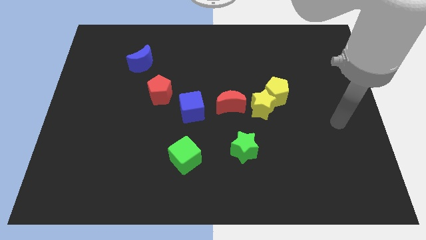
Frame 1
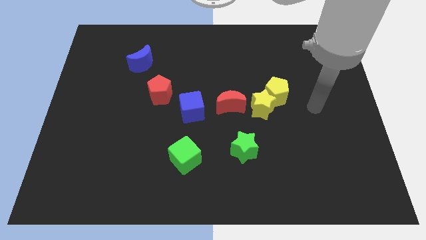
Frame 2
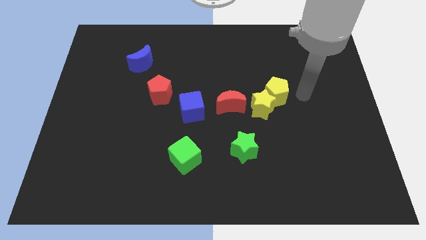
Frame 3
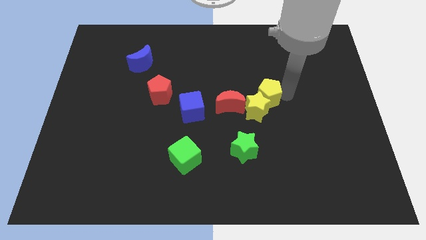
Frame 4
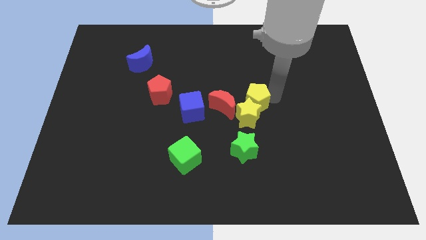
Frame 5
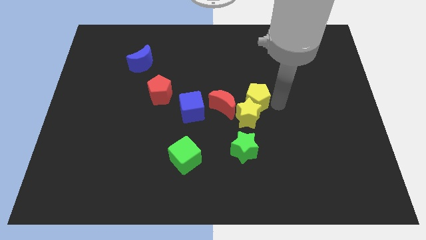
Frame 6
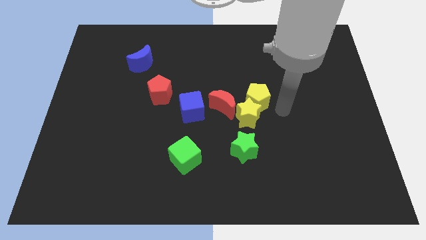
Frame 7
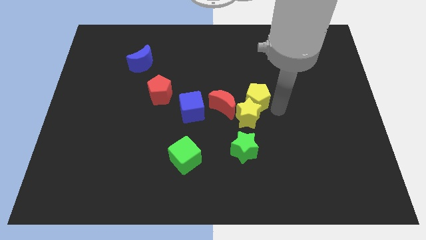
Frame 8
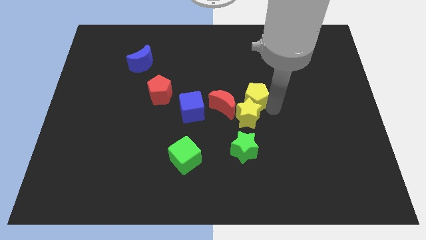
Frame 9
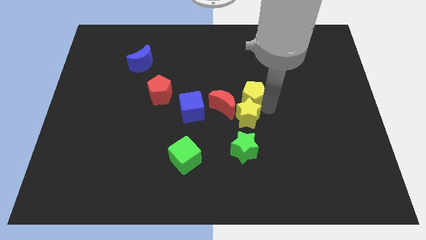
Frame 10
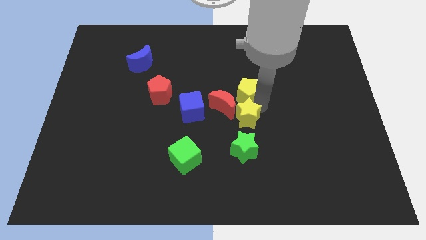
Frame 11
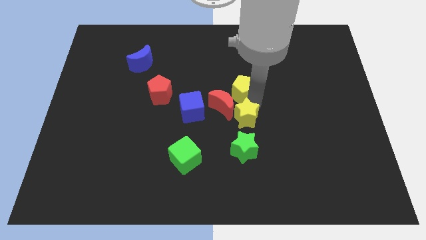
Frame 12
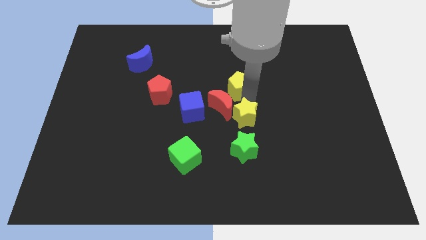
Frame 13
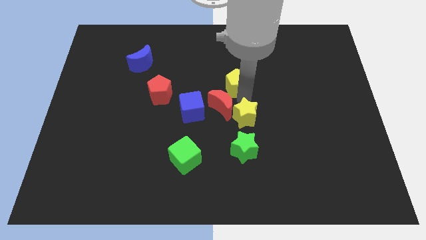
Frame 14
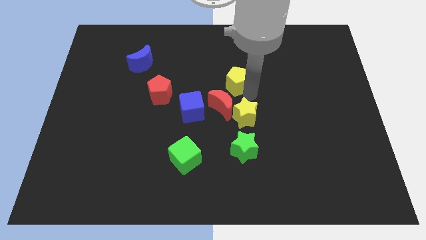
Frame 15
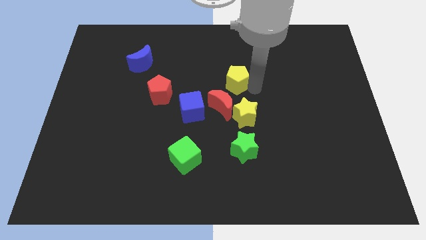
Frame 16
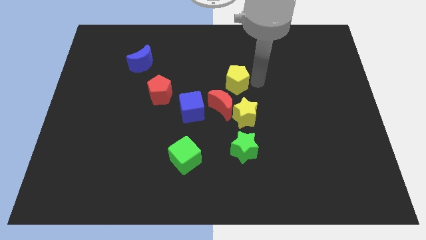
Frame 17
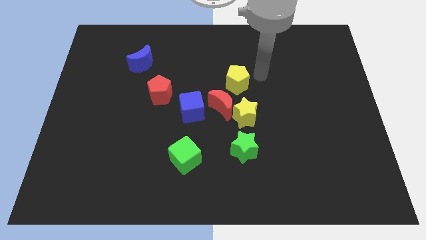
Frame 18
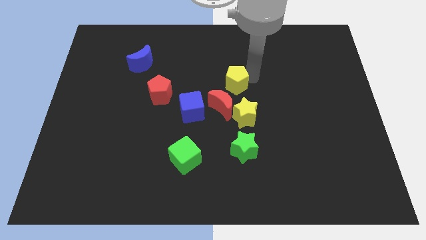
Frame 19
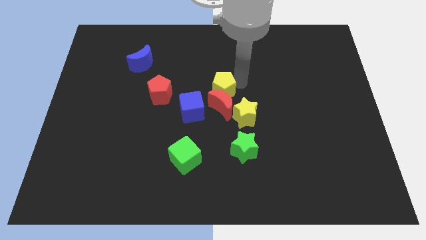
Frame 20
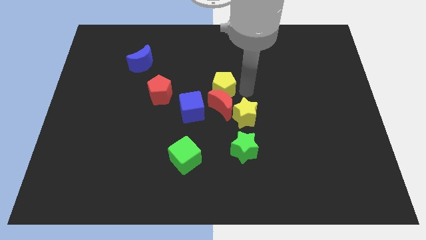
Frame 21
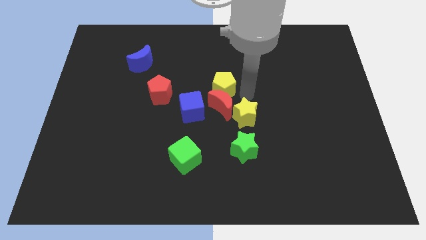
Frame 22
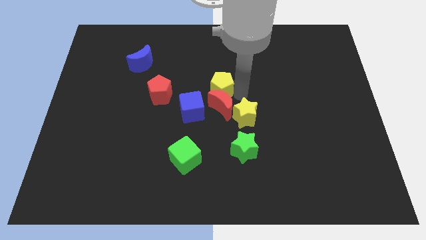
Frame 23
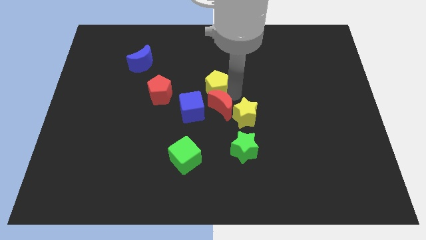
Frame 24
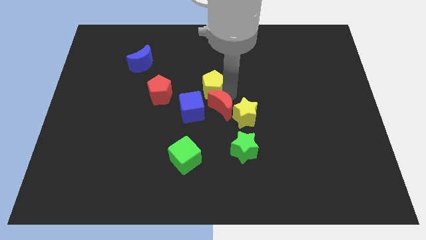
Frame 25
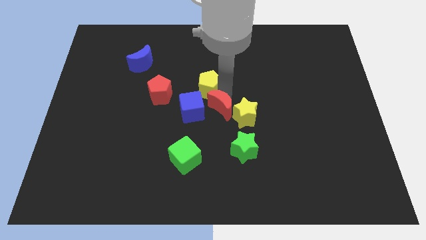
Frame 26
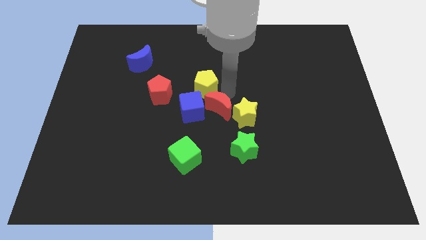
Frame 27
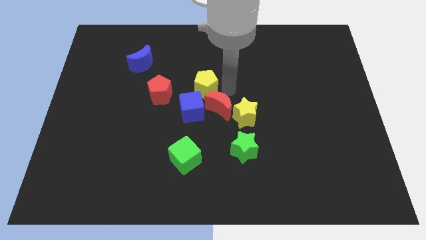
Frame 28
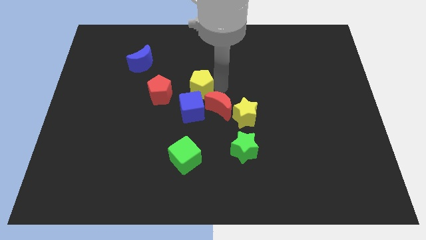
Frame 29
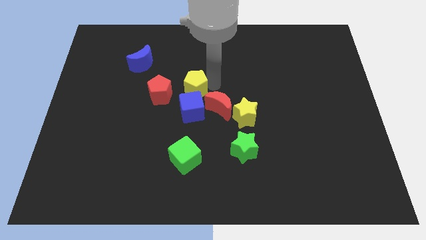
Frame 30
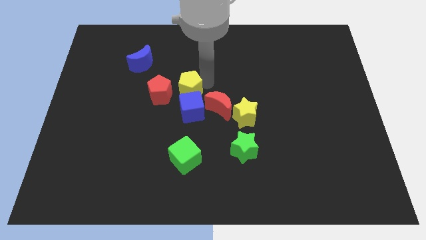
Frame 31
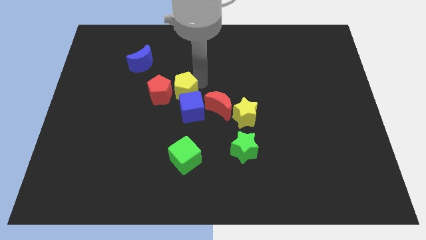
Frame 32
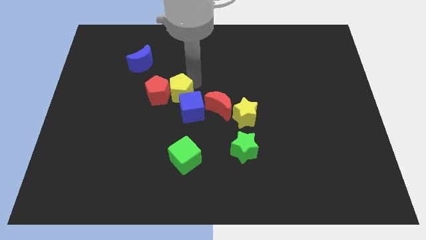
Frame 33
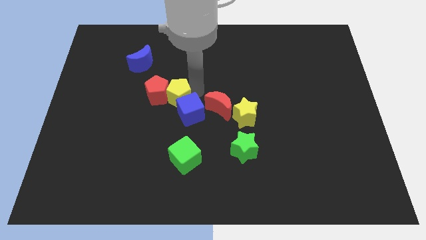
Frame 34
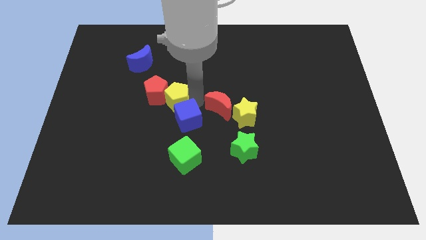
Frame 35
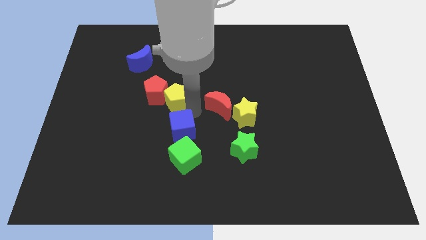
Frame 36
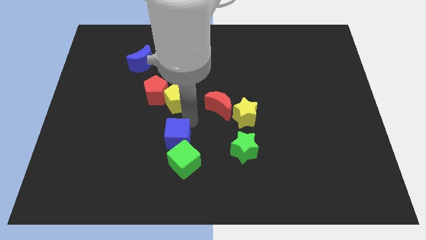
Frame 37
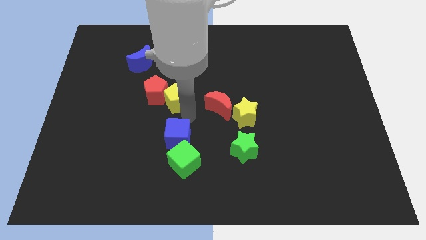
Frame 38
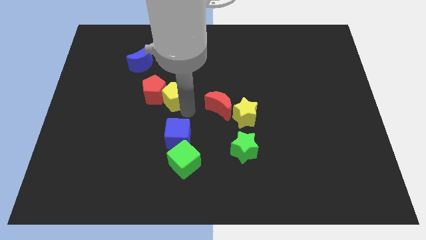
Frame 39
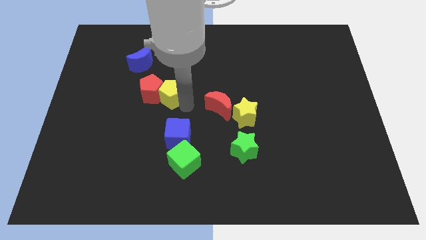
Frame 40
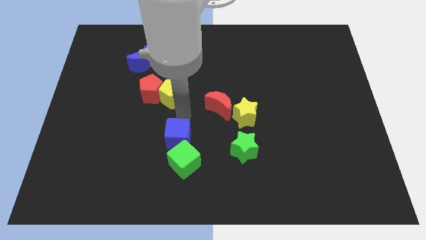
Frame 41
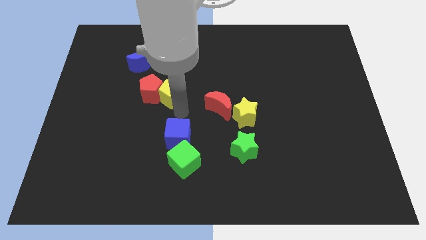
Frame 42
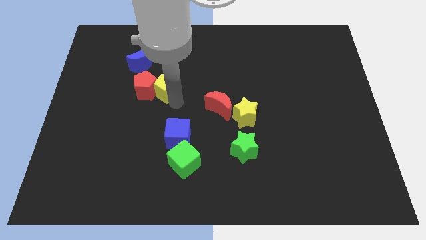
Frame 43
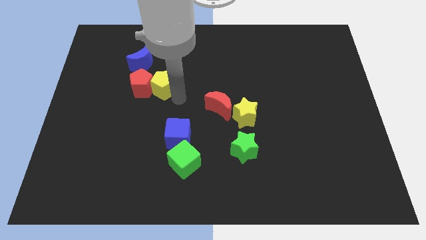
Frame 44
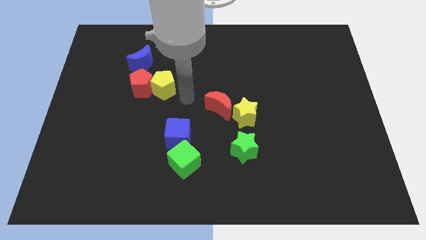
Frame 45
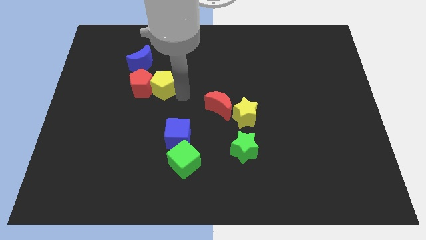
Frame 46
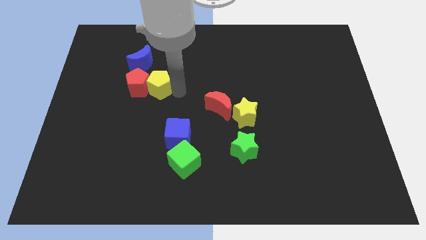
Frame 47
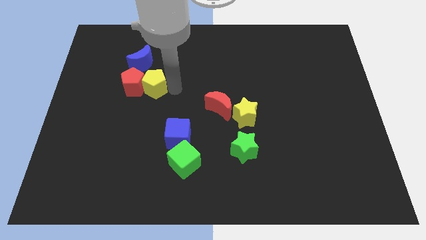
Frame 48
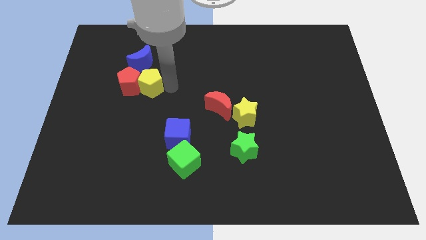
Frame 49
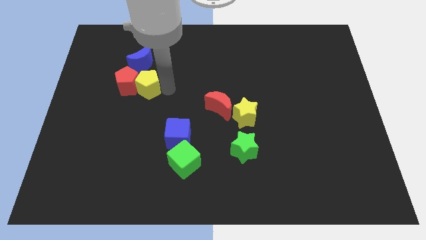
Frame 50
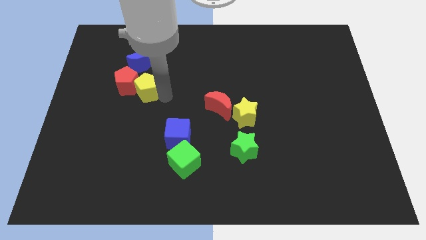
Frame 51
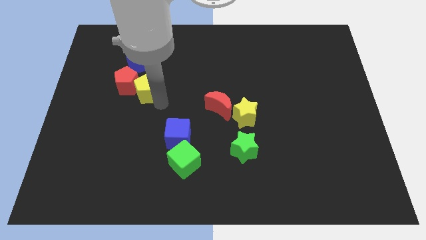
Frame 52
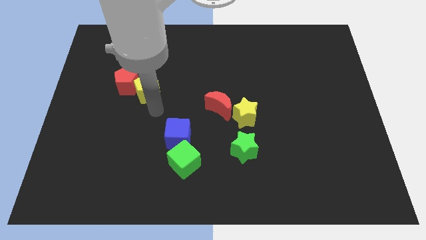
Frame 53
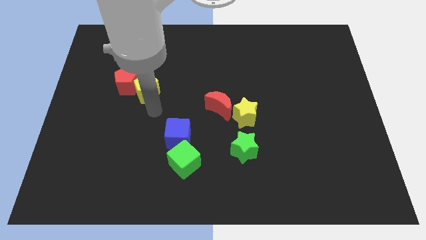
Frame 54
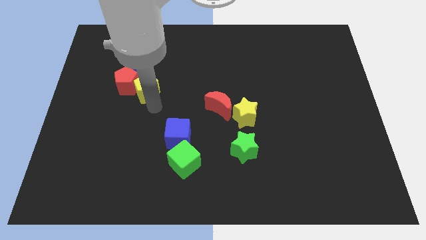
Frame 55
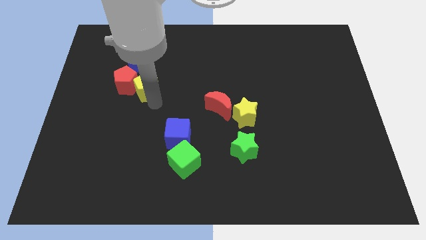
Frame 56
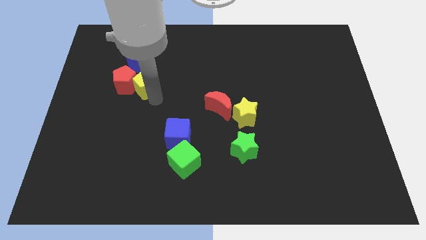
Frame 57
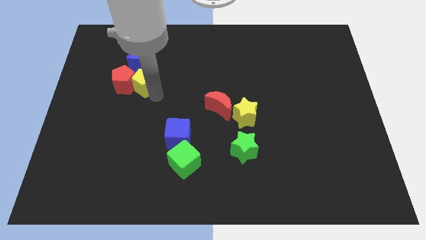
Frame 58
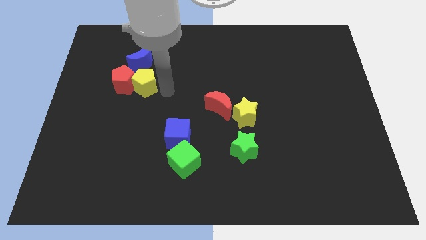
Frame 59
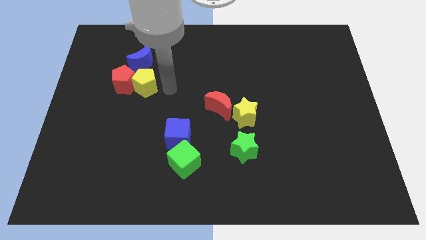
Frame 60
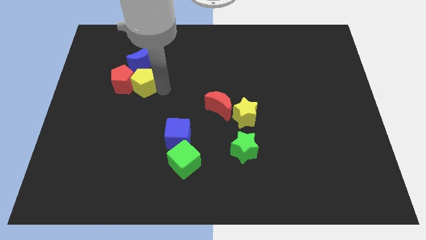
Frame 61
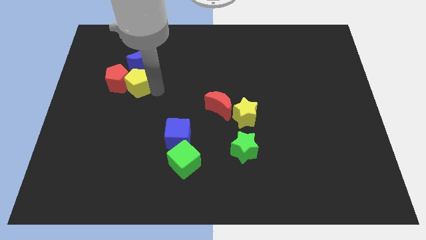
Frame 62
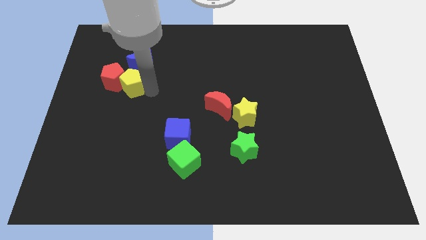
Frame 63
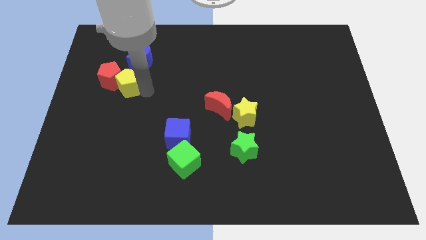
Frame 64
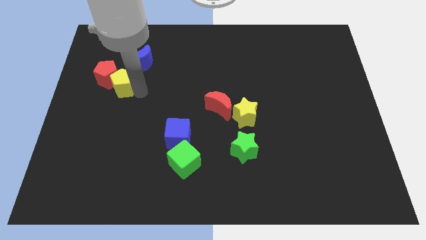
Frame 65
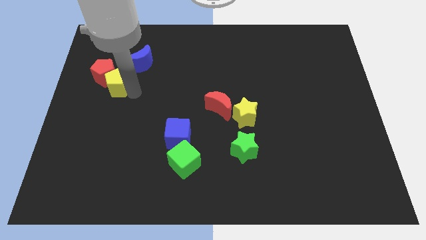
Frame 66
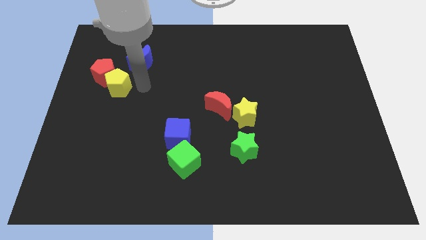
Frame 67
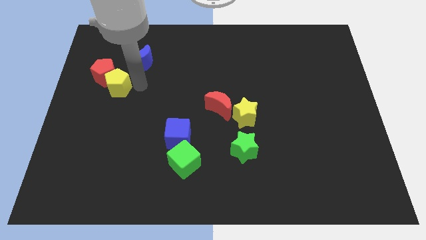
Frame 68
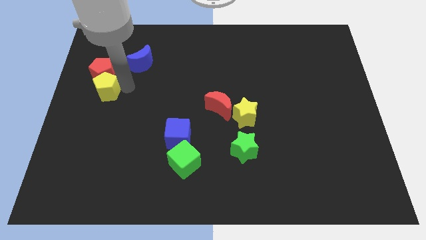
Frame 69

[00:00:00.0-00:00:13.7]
push the yellow pentagon to the left side of the board
